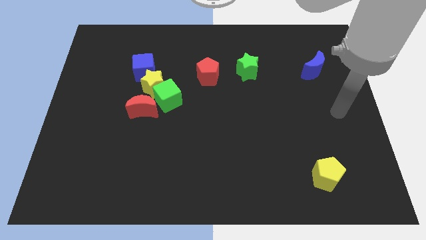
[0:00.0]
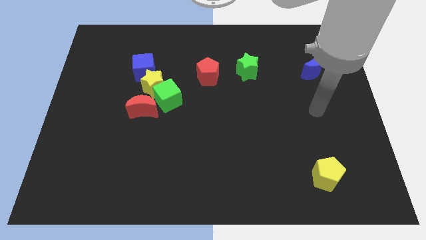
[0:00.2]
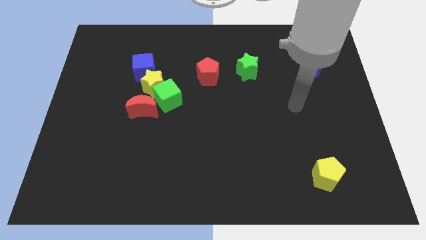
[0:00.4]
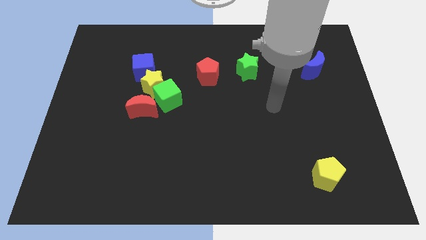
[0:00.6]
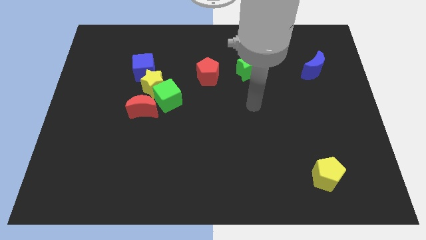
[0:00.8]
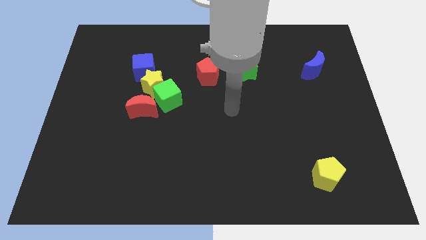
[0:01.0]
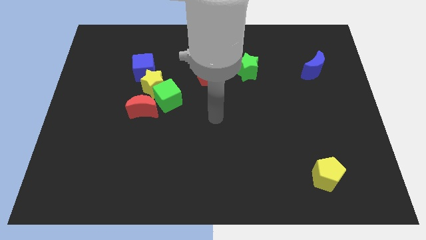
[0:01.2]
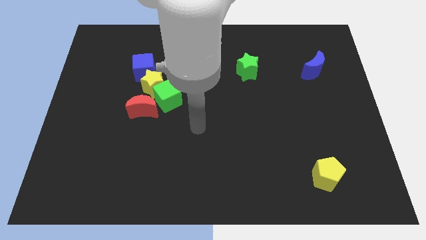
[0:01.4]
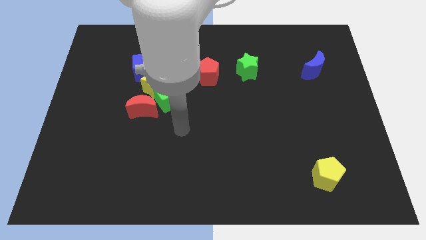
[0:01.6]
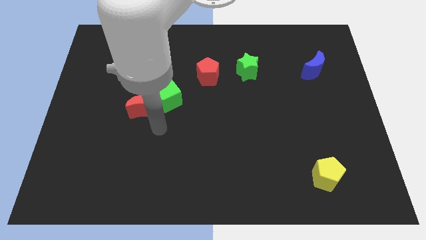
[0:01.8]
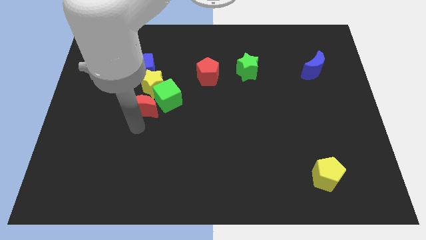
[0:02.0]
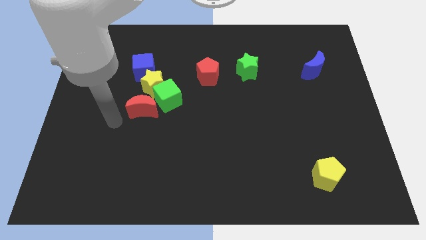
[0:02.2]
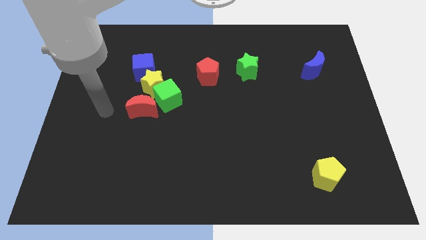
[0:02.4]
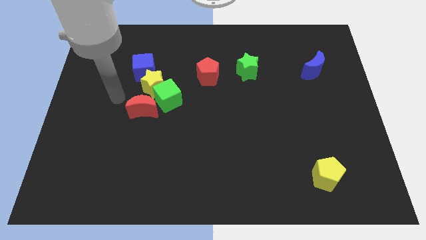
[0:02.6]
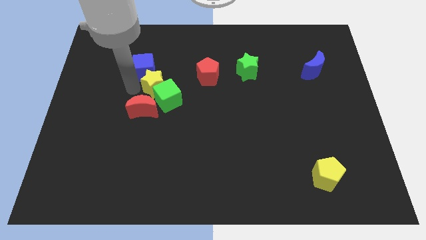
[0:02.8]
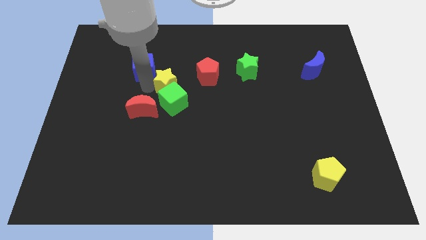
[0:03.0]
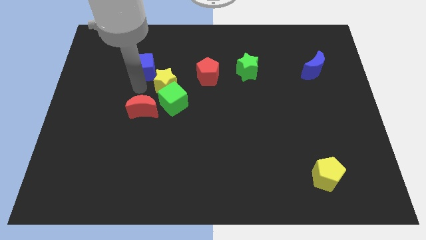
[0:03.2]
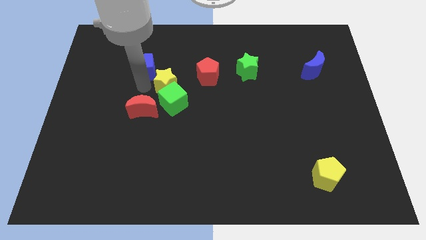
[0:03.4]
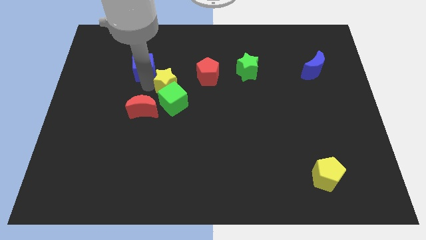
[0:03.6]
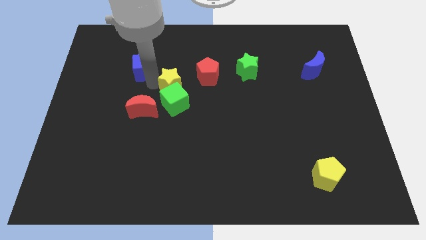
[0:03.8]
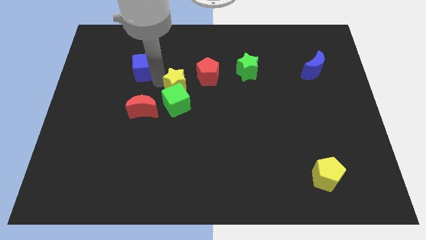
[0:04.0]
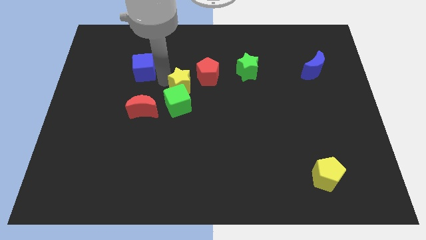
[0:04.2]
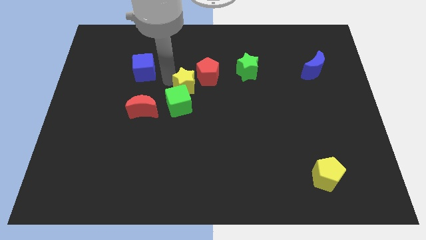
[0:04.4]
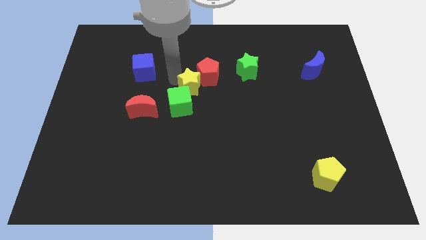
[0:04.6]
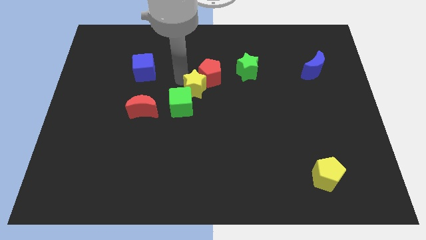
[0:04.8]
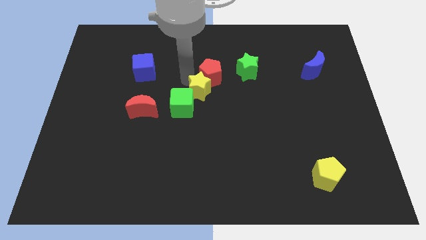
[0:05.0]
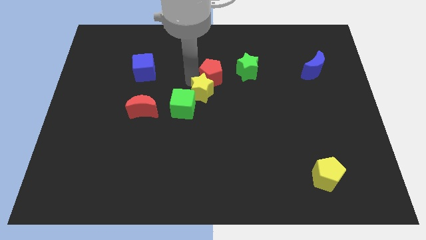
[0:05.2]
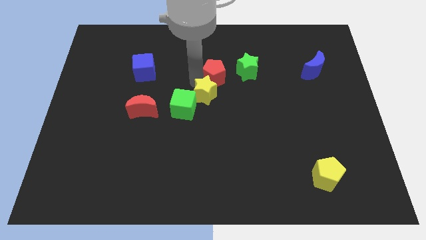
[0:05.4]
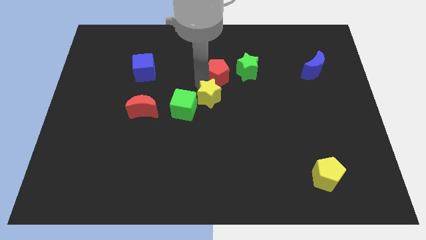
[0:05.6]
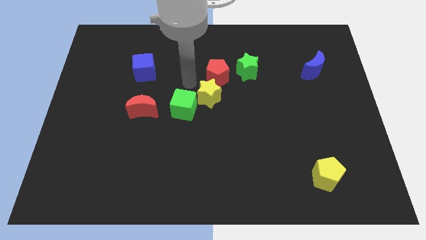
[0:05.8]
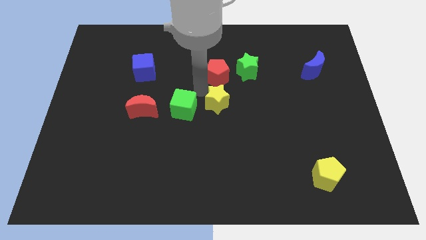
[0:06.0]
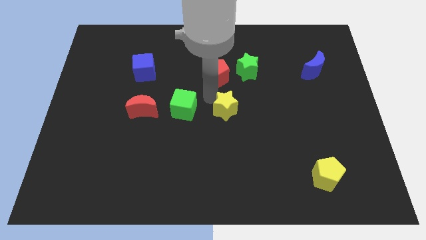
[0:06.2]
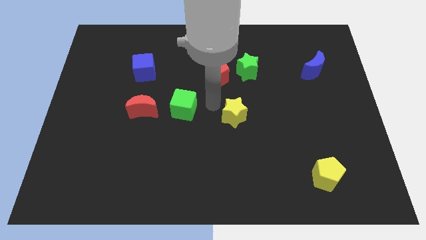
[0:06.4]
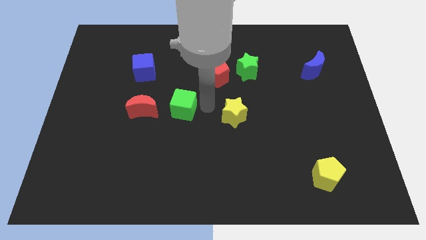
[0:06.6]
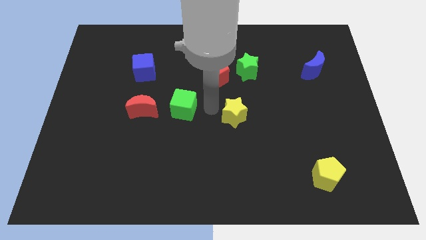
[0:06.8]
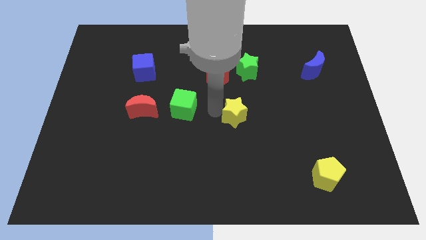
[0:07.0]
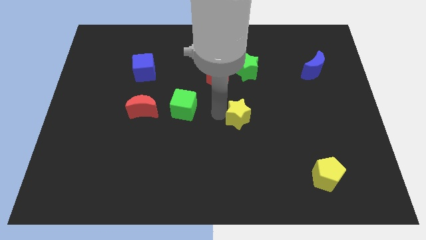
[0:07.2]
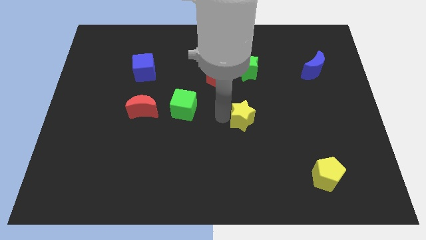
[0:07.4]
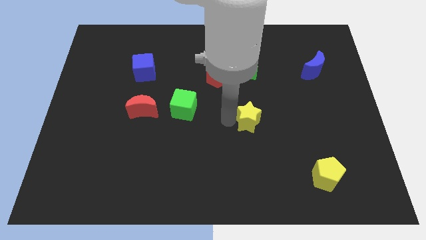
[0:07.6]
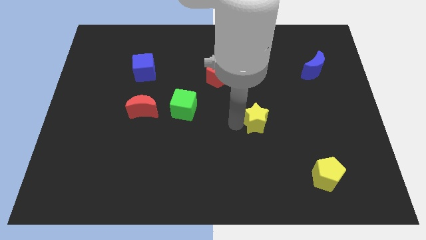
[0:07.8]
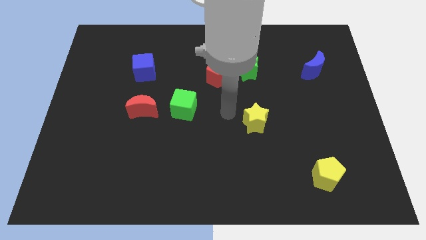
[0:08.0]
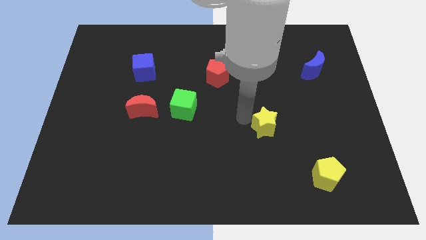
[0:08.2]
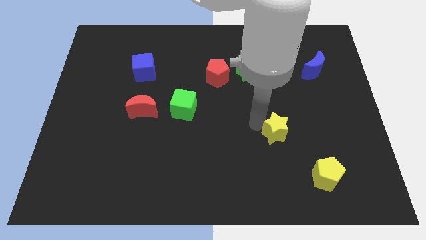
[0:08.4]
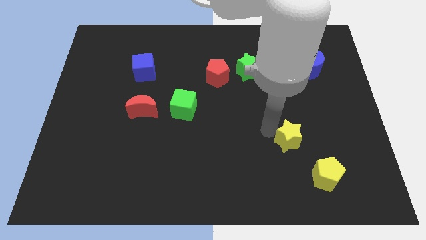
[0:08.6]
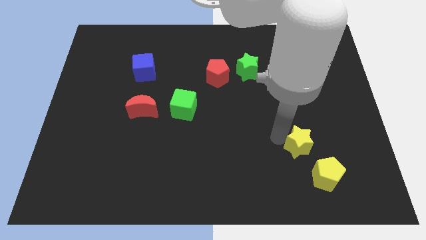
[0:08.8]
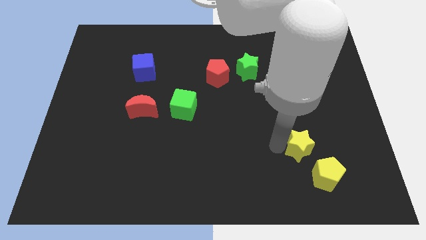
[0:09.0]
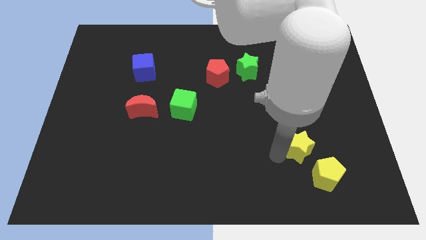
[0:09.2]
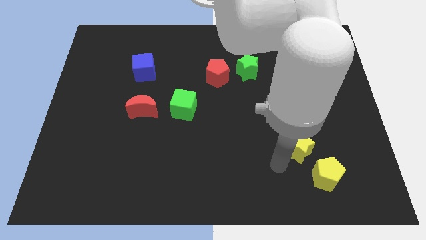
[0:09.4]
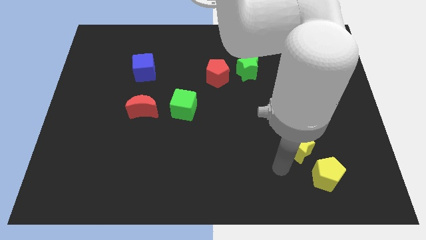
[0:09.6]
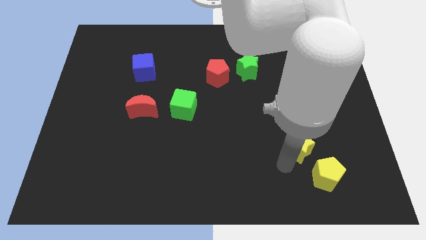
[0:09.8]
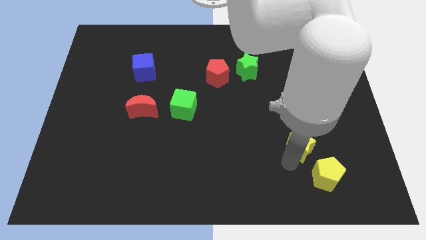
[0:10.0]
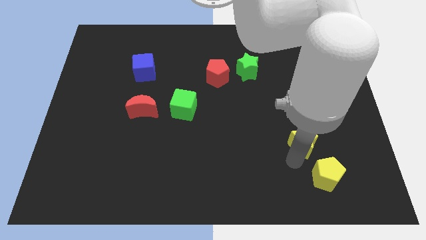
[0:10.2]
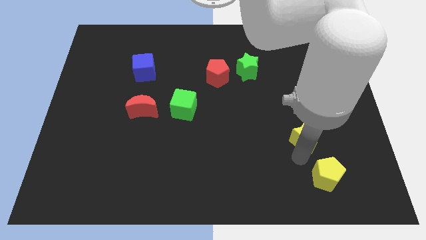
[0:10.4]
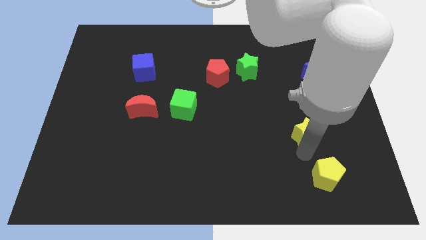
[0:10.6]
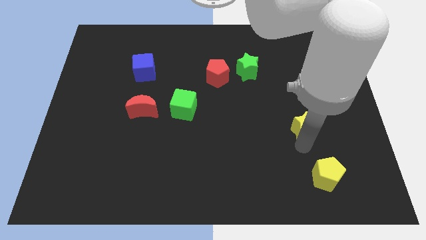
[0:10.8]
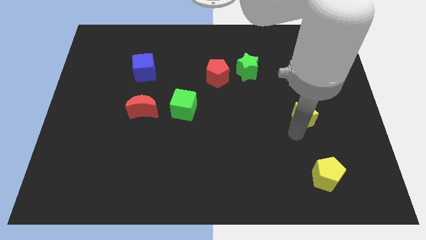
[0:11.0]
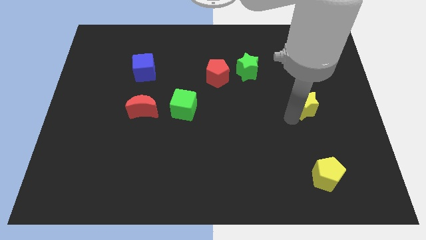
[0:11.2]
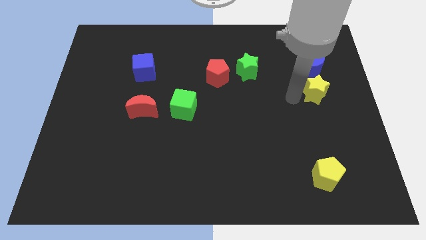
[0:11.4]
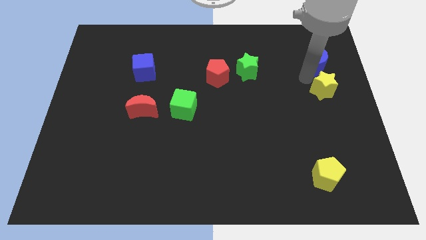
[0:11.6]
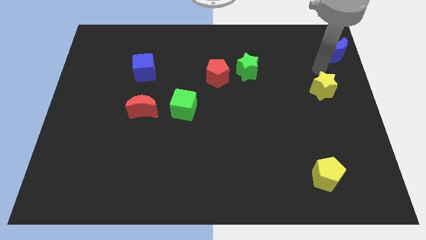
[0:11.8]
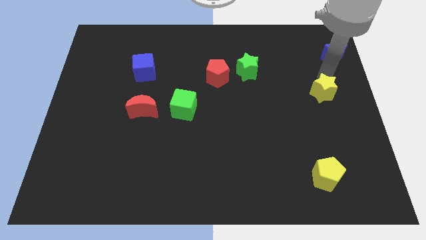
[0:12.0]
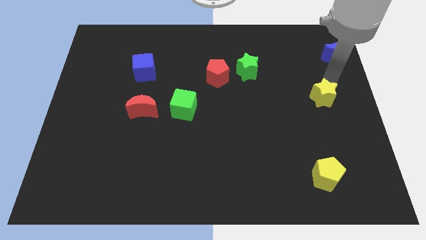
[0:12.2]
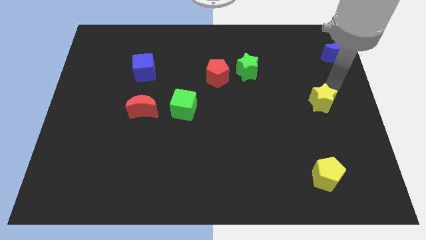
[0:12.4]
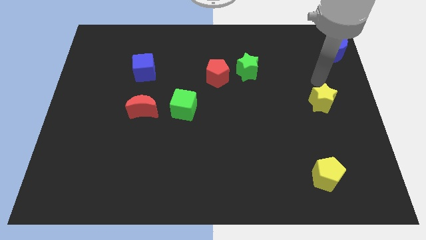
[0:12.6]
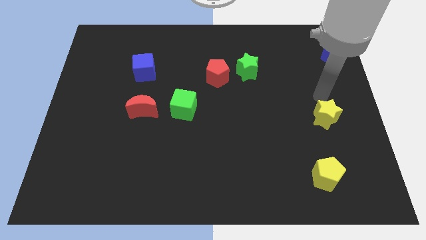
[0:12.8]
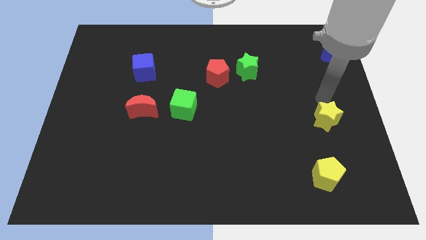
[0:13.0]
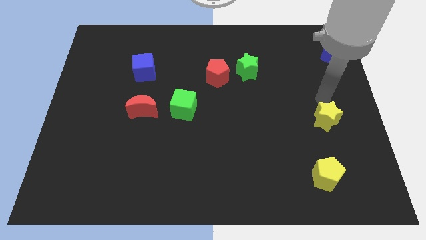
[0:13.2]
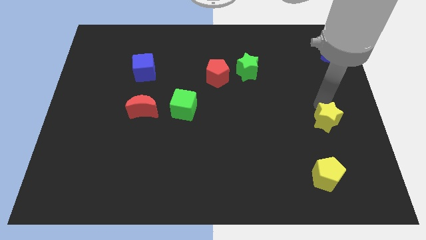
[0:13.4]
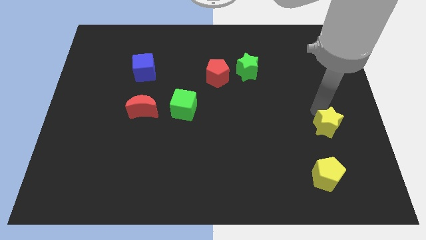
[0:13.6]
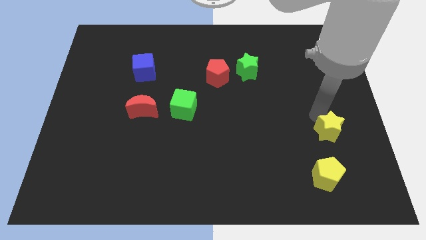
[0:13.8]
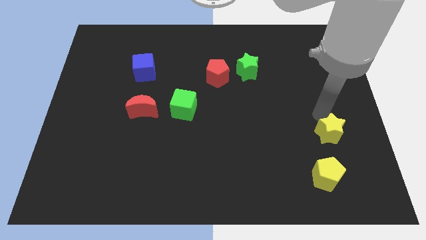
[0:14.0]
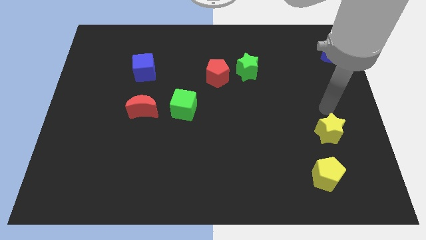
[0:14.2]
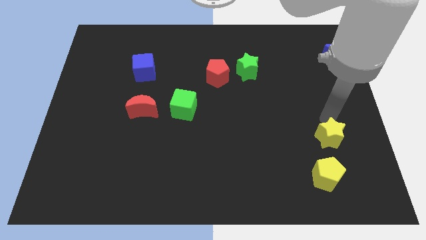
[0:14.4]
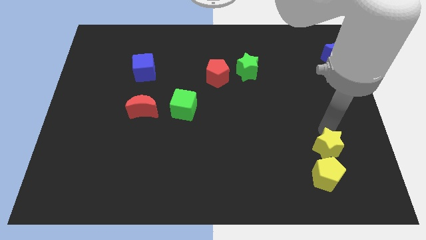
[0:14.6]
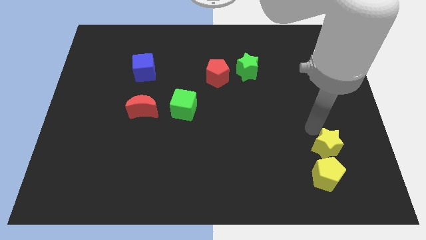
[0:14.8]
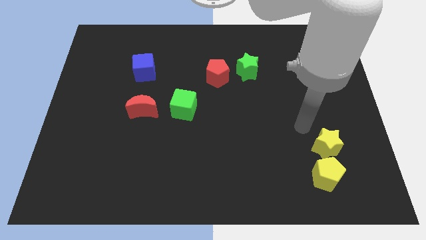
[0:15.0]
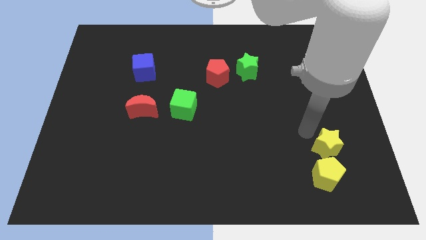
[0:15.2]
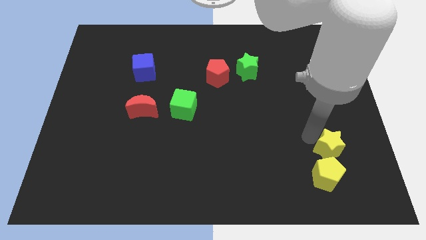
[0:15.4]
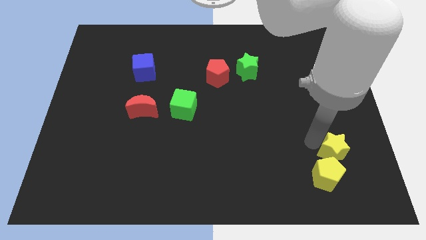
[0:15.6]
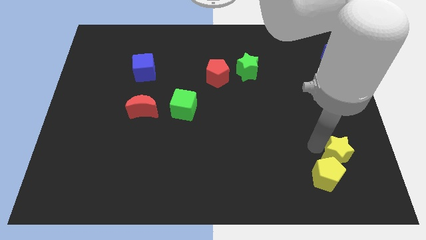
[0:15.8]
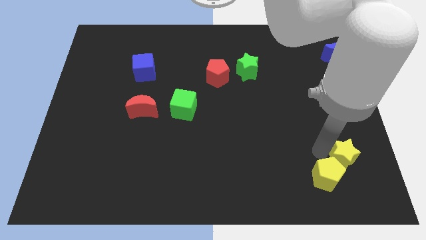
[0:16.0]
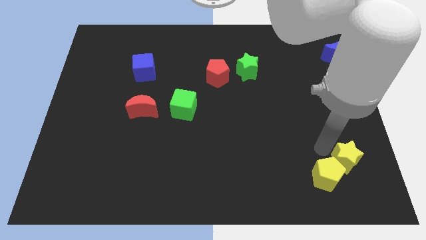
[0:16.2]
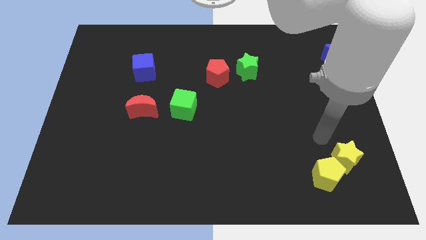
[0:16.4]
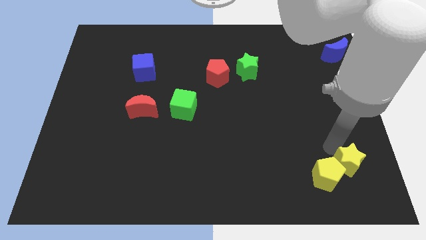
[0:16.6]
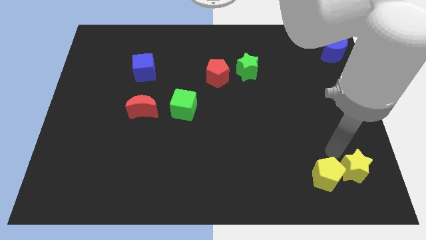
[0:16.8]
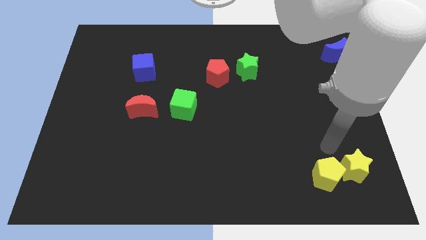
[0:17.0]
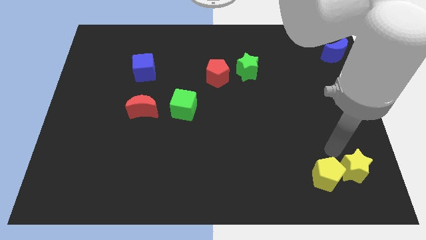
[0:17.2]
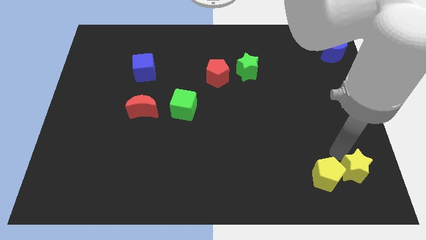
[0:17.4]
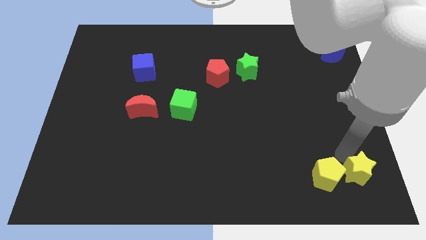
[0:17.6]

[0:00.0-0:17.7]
move the yellow star to the bottom right corner
